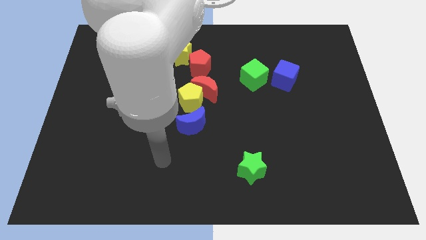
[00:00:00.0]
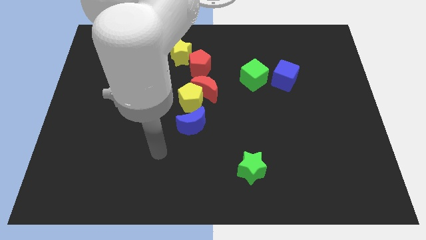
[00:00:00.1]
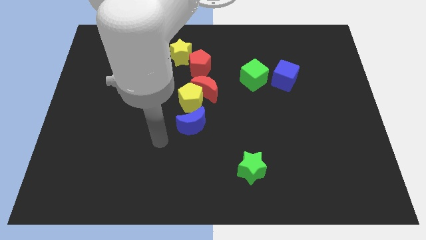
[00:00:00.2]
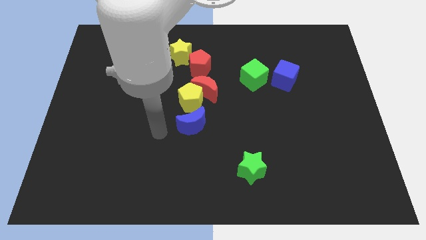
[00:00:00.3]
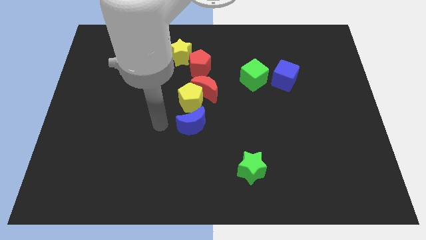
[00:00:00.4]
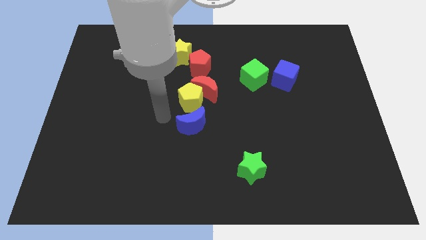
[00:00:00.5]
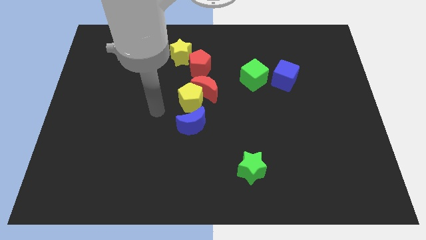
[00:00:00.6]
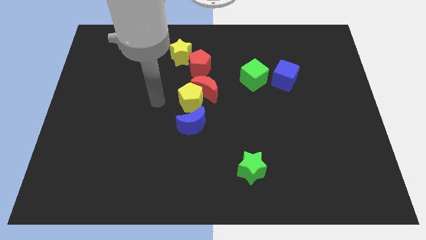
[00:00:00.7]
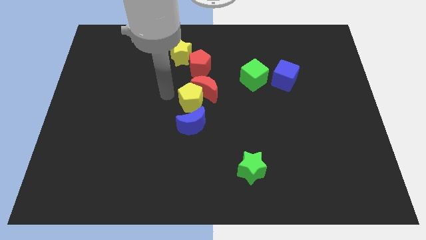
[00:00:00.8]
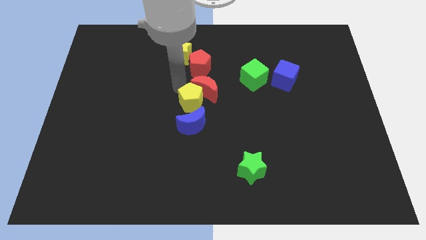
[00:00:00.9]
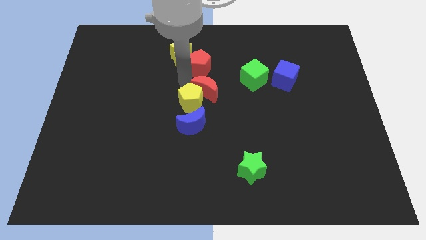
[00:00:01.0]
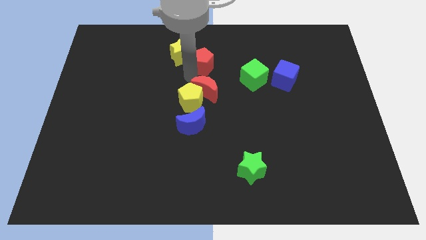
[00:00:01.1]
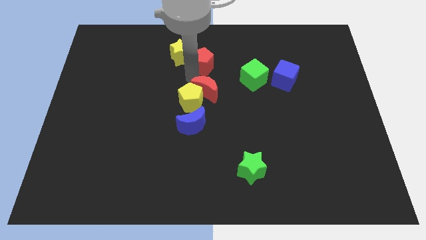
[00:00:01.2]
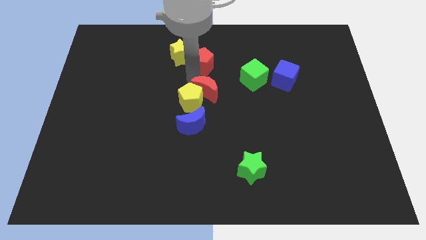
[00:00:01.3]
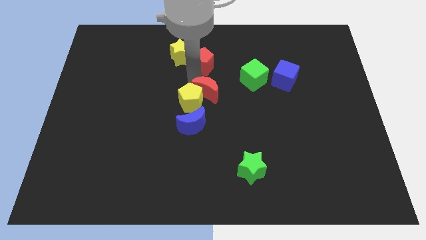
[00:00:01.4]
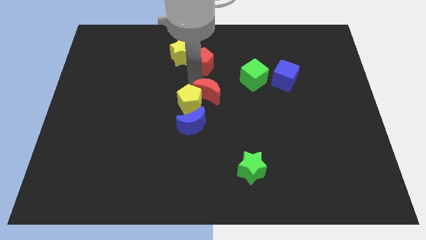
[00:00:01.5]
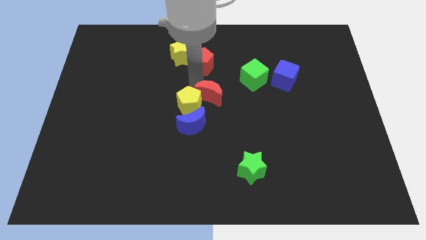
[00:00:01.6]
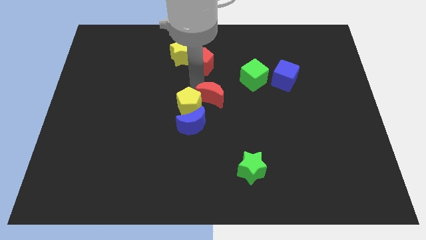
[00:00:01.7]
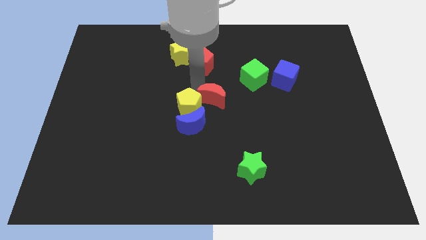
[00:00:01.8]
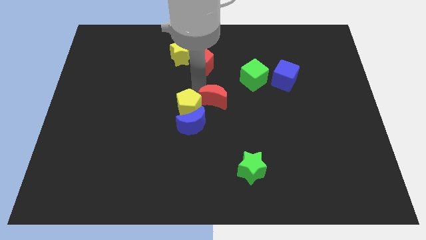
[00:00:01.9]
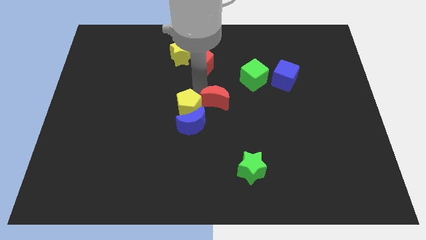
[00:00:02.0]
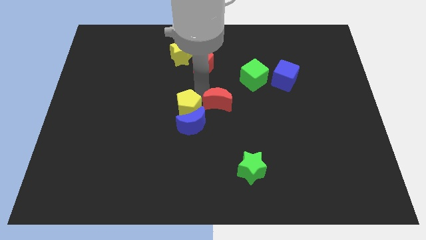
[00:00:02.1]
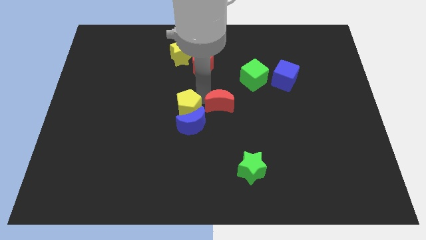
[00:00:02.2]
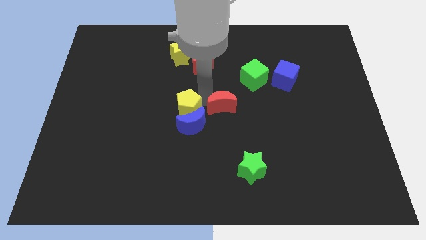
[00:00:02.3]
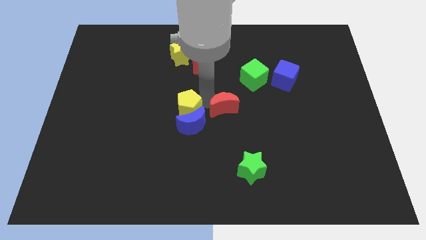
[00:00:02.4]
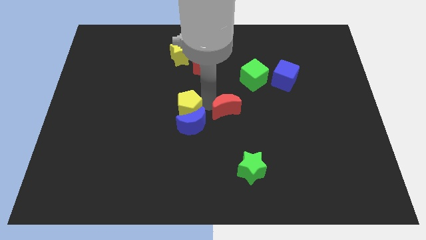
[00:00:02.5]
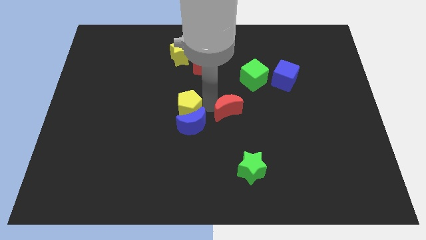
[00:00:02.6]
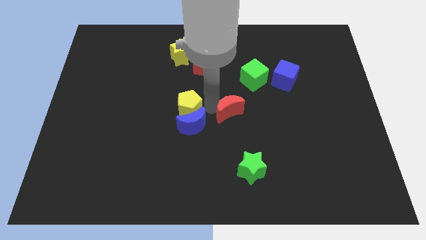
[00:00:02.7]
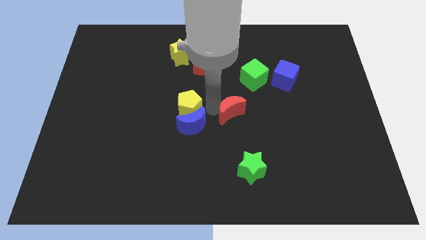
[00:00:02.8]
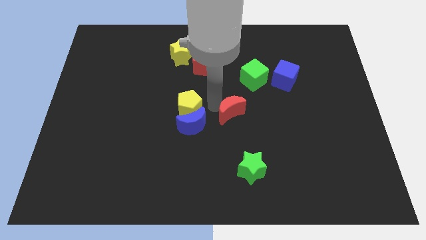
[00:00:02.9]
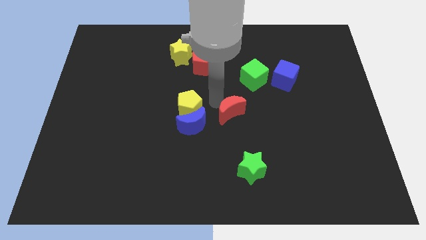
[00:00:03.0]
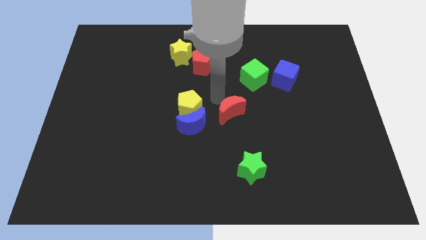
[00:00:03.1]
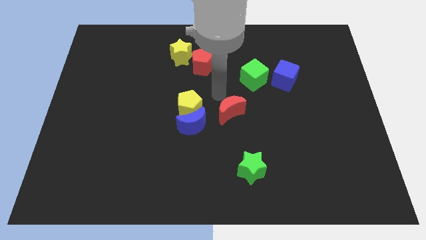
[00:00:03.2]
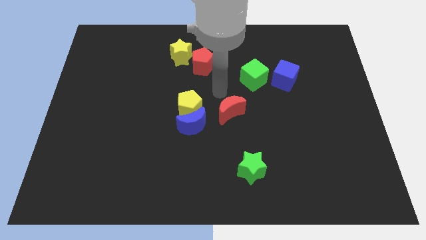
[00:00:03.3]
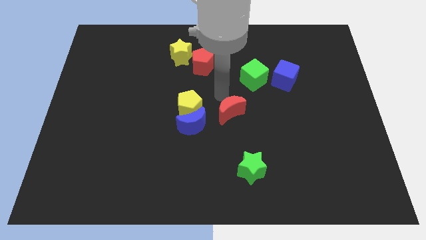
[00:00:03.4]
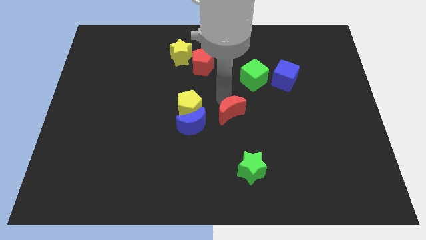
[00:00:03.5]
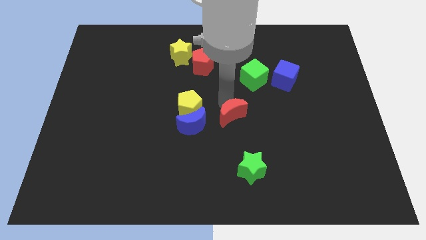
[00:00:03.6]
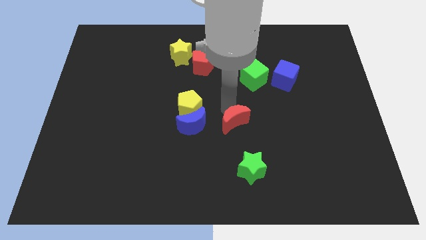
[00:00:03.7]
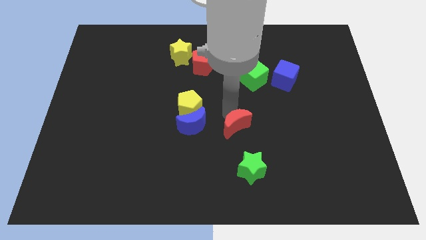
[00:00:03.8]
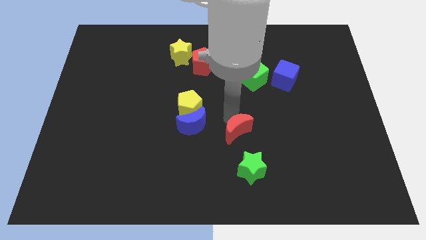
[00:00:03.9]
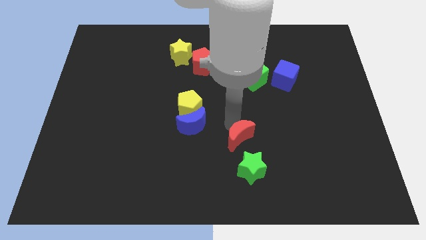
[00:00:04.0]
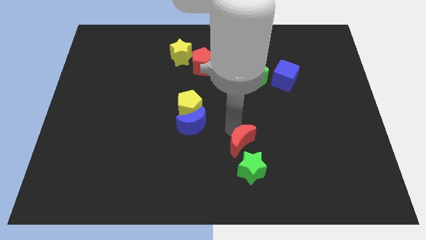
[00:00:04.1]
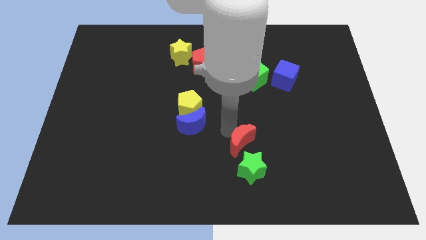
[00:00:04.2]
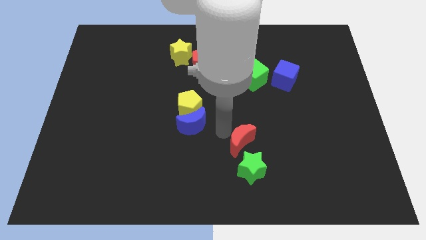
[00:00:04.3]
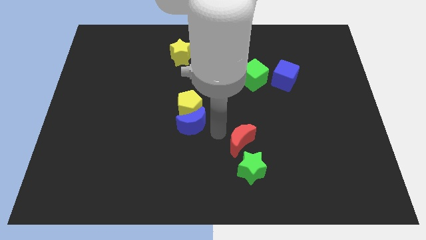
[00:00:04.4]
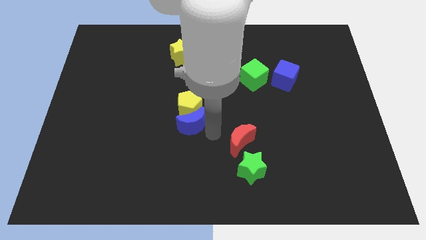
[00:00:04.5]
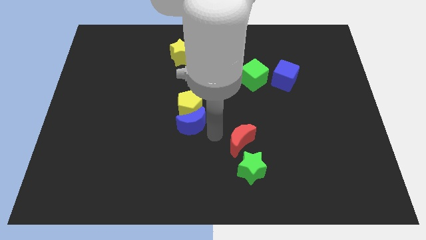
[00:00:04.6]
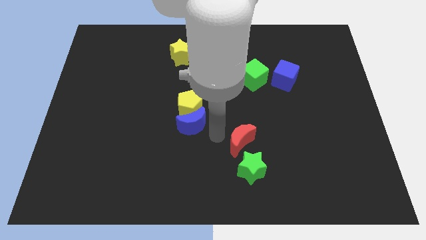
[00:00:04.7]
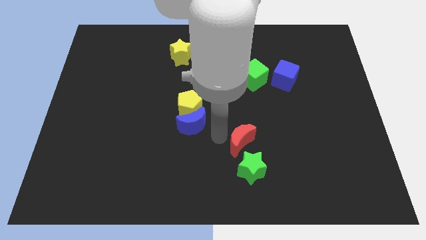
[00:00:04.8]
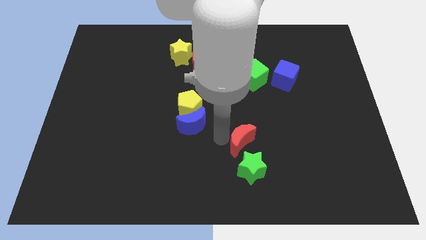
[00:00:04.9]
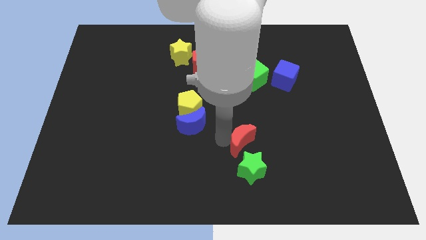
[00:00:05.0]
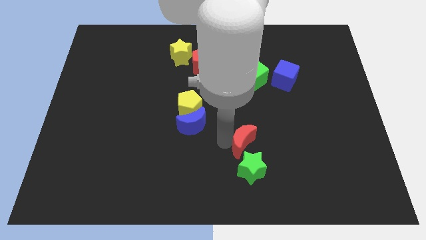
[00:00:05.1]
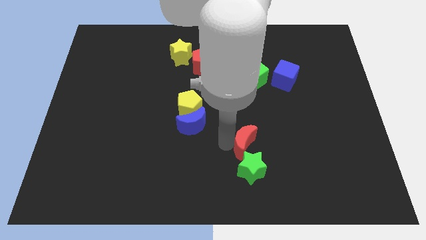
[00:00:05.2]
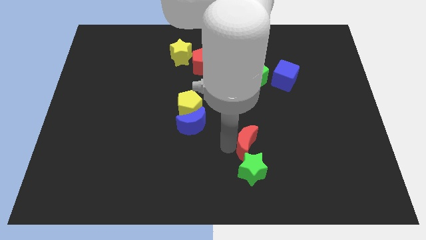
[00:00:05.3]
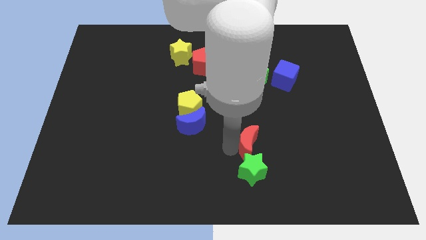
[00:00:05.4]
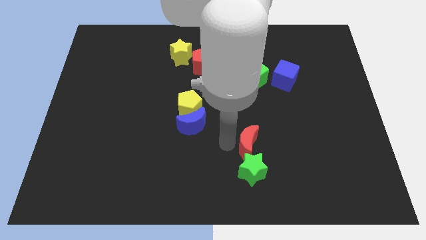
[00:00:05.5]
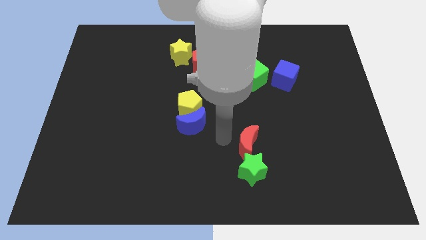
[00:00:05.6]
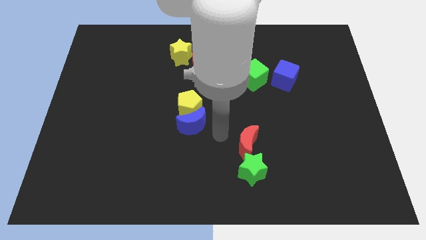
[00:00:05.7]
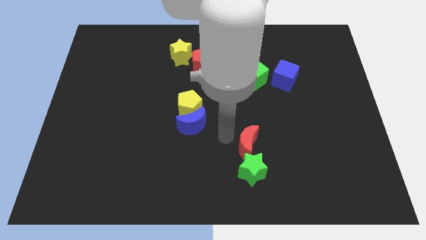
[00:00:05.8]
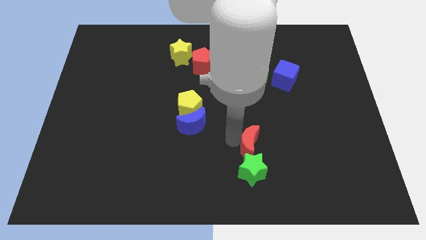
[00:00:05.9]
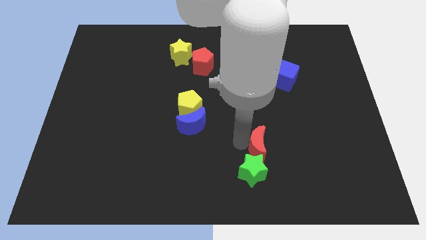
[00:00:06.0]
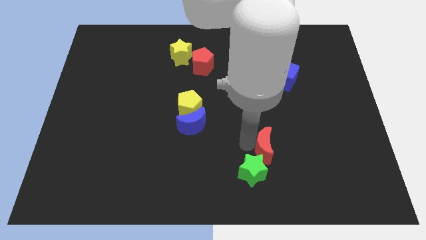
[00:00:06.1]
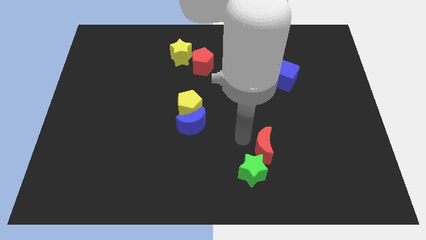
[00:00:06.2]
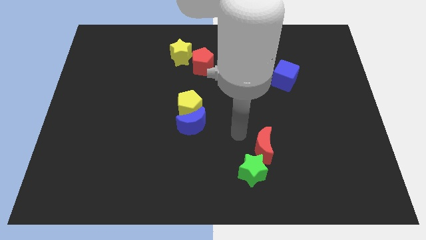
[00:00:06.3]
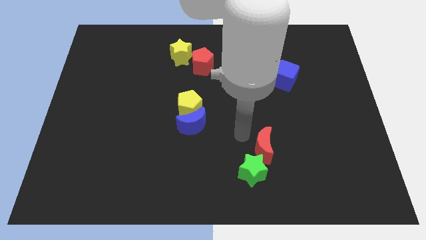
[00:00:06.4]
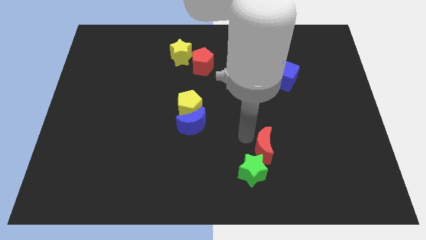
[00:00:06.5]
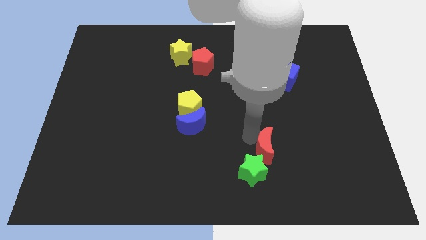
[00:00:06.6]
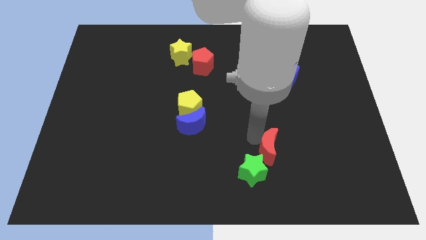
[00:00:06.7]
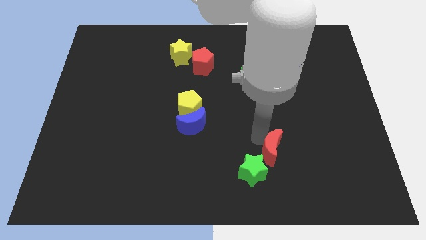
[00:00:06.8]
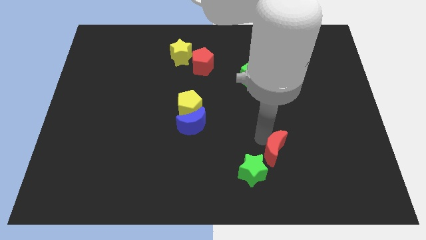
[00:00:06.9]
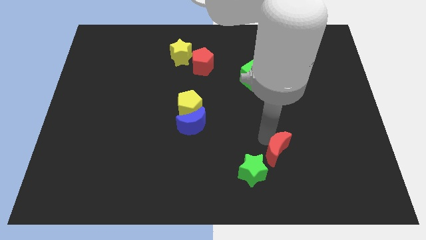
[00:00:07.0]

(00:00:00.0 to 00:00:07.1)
put the red moon to the right side of the green star

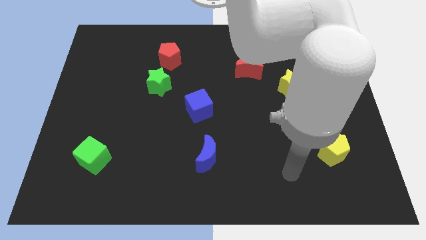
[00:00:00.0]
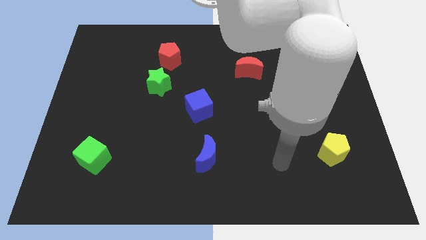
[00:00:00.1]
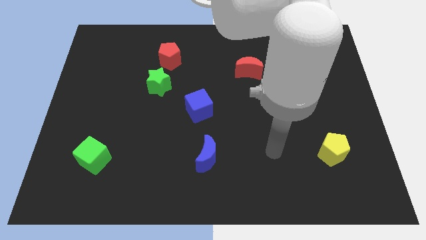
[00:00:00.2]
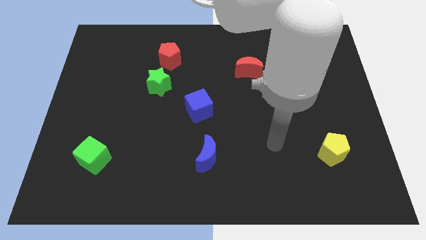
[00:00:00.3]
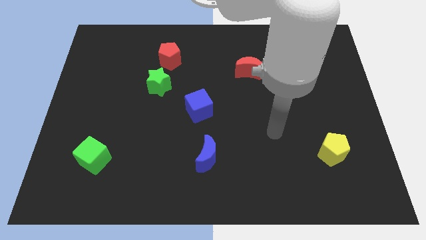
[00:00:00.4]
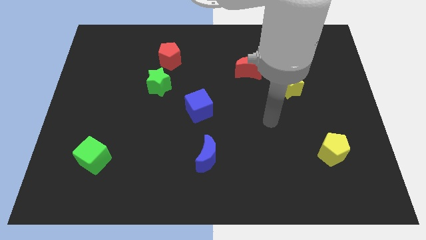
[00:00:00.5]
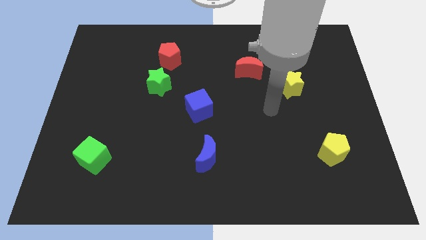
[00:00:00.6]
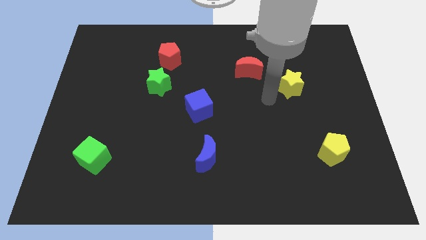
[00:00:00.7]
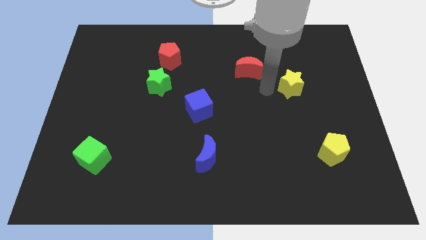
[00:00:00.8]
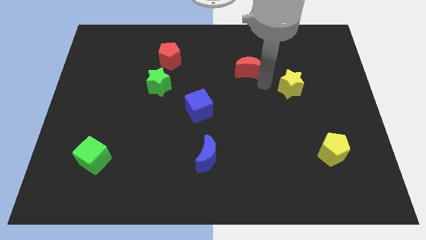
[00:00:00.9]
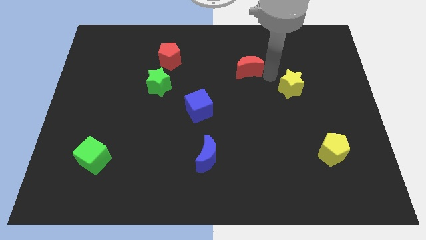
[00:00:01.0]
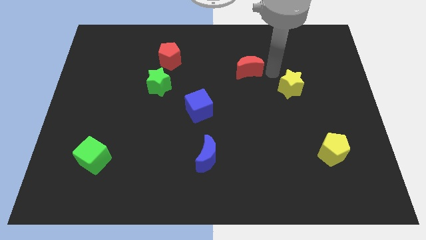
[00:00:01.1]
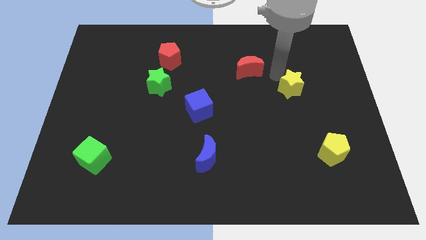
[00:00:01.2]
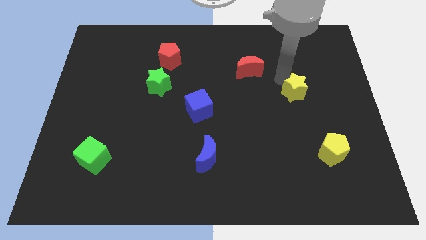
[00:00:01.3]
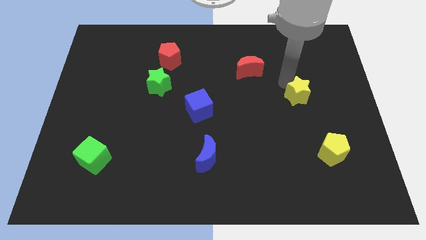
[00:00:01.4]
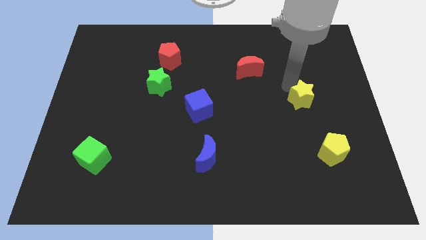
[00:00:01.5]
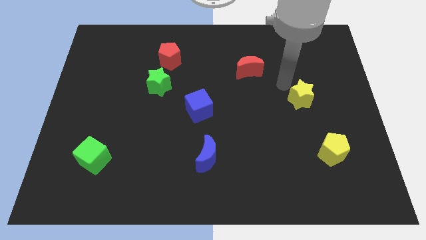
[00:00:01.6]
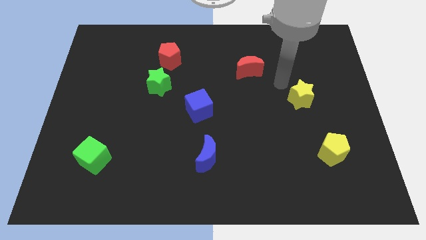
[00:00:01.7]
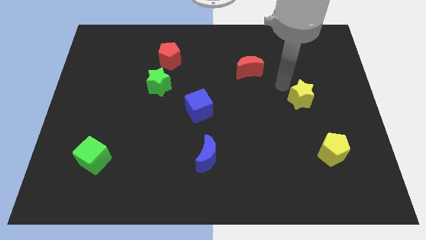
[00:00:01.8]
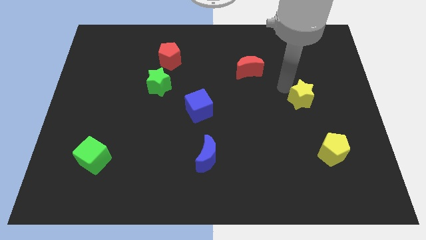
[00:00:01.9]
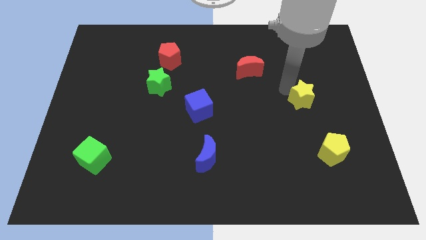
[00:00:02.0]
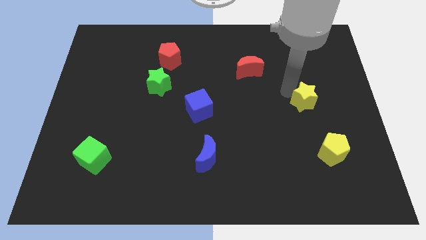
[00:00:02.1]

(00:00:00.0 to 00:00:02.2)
move the yellow star above the yellow pentagon
